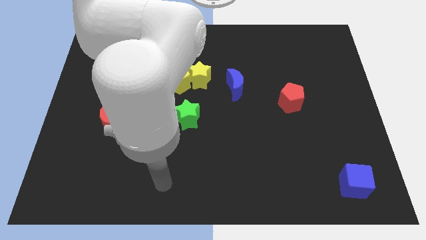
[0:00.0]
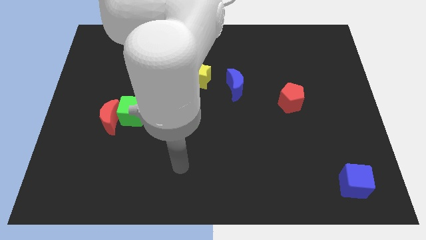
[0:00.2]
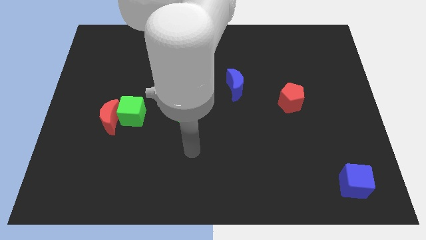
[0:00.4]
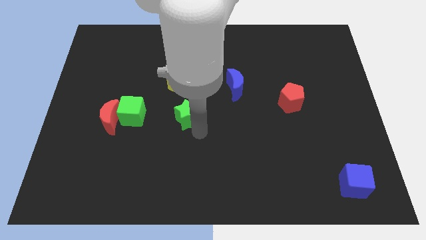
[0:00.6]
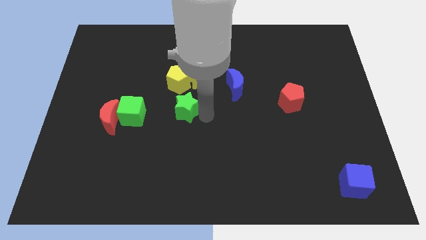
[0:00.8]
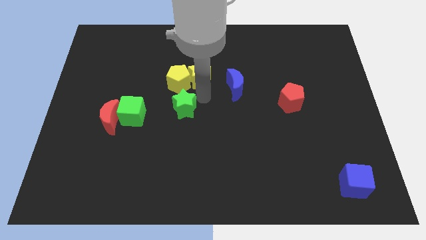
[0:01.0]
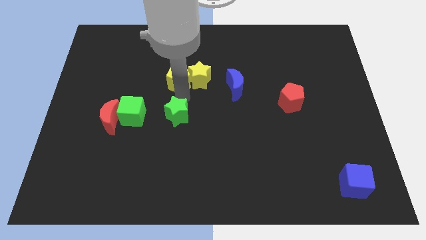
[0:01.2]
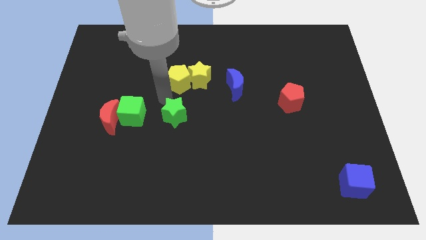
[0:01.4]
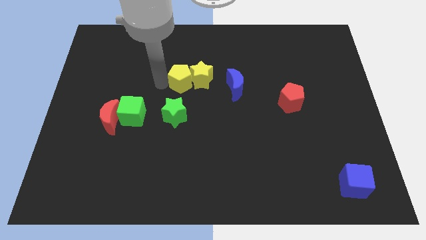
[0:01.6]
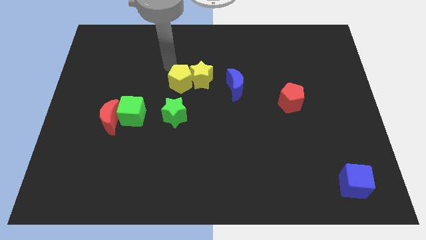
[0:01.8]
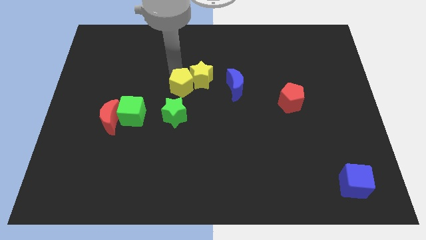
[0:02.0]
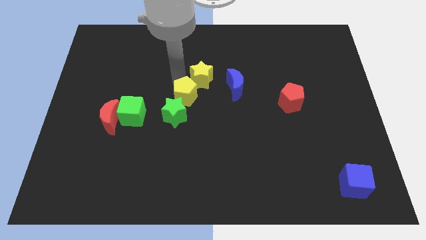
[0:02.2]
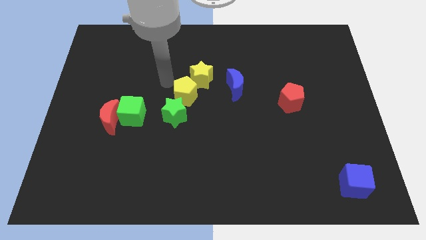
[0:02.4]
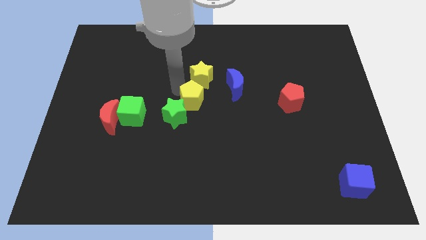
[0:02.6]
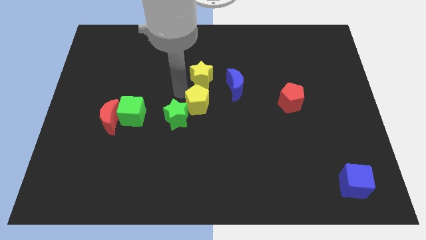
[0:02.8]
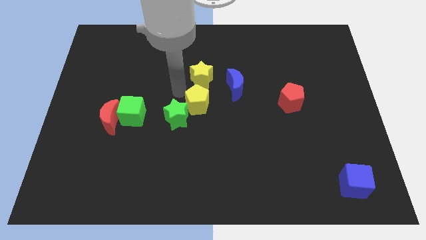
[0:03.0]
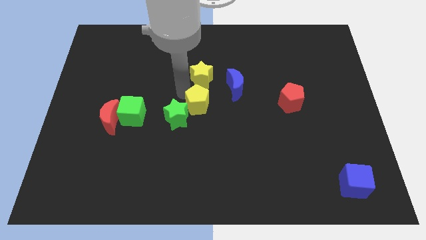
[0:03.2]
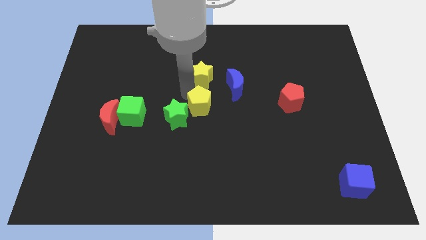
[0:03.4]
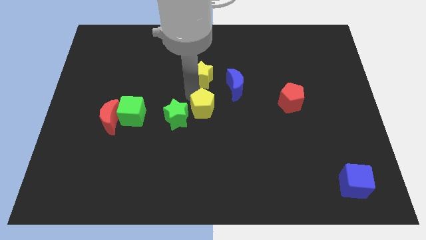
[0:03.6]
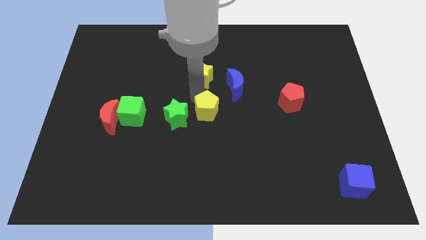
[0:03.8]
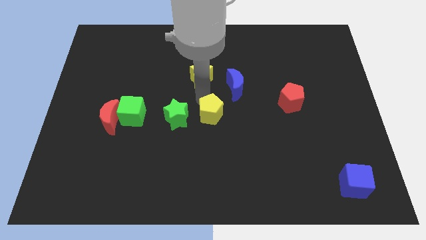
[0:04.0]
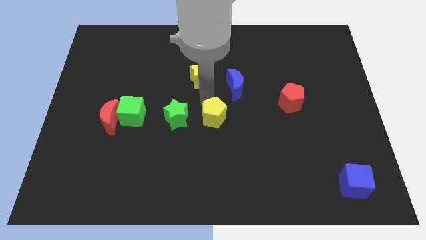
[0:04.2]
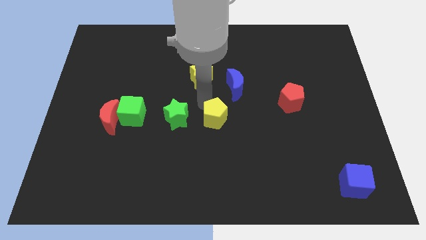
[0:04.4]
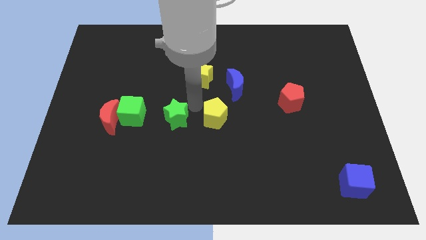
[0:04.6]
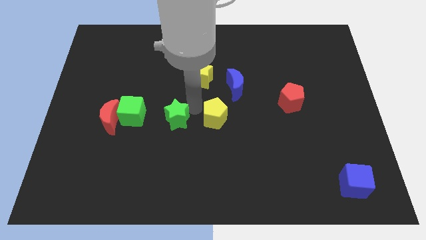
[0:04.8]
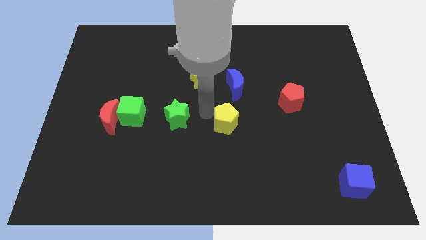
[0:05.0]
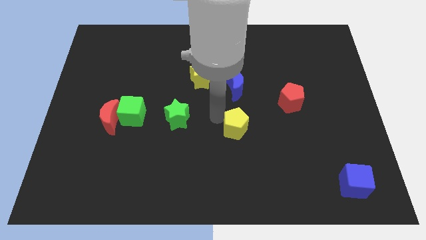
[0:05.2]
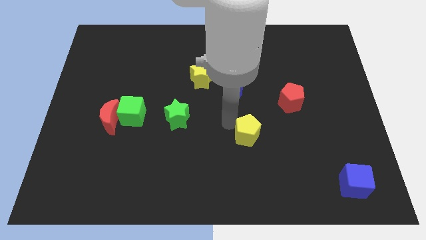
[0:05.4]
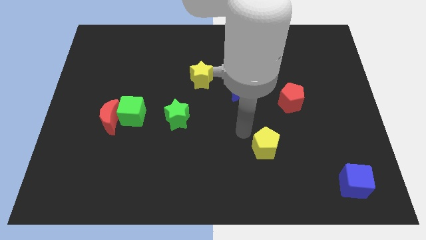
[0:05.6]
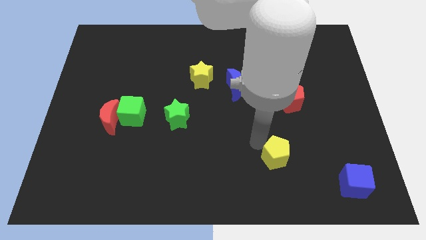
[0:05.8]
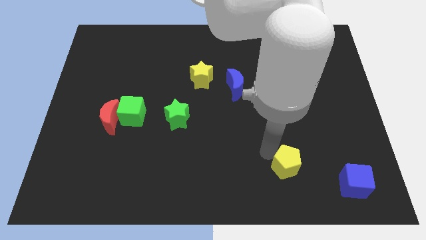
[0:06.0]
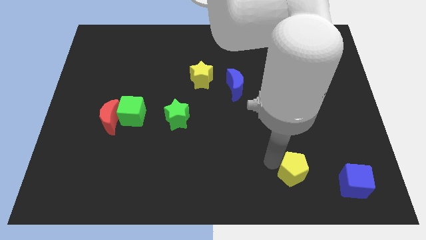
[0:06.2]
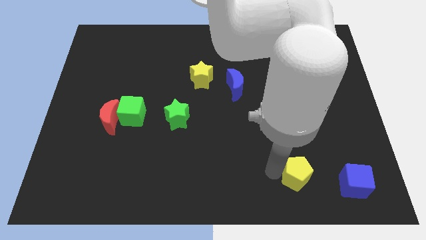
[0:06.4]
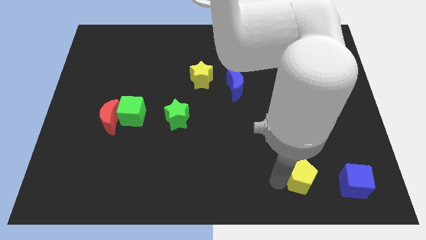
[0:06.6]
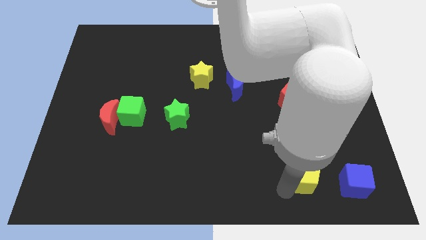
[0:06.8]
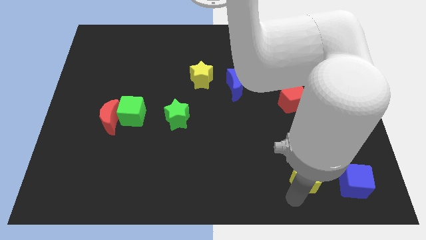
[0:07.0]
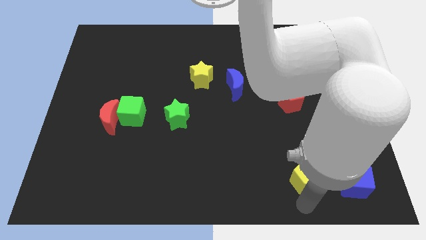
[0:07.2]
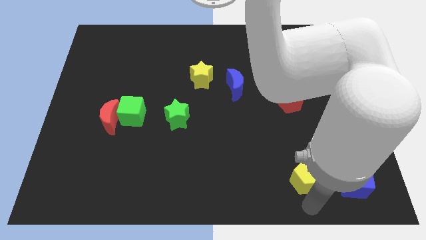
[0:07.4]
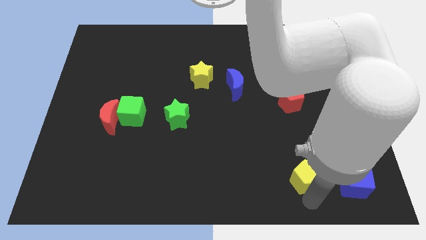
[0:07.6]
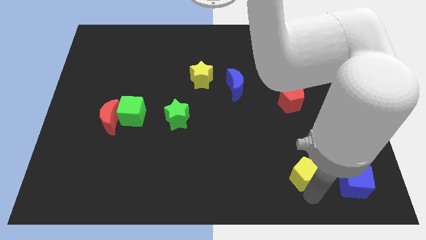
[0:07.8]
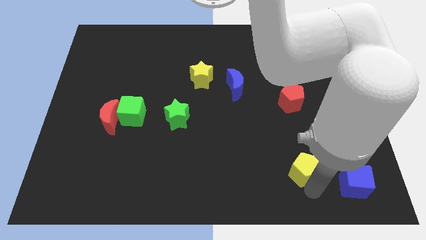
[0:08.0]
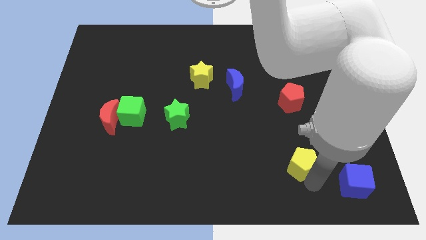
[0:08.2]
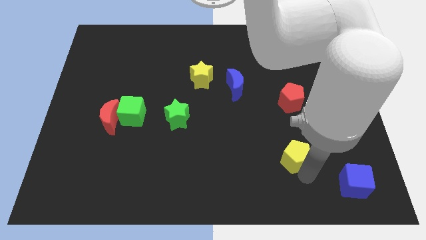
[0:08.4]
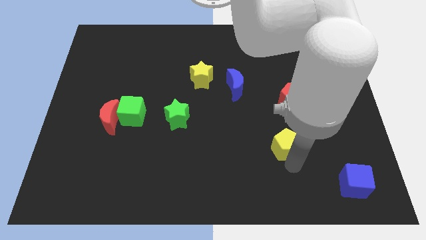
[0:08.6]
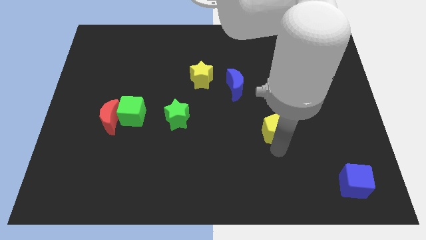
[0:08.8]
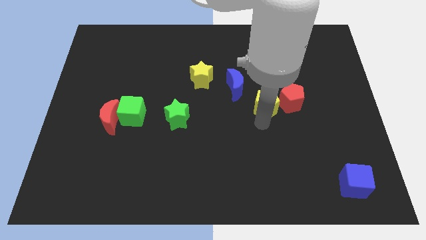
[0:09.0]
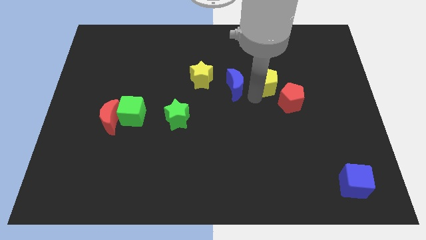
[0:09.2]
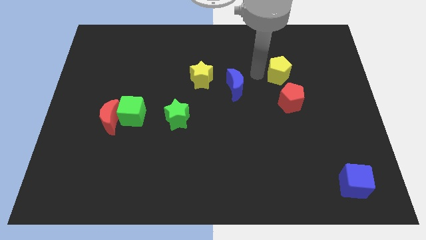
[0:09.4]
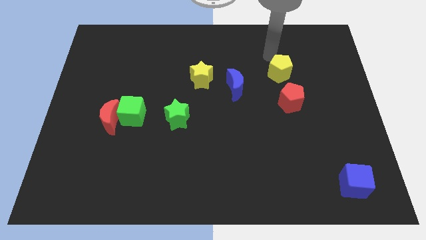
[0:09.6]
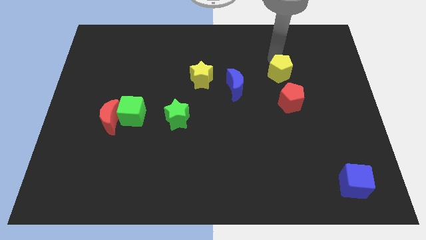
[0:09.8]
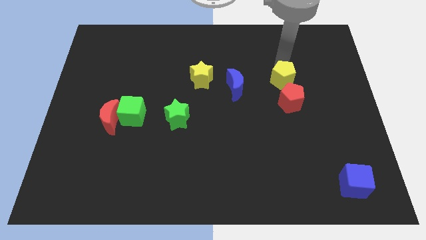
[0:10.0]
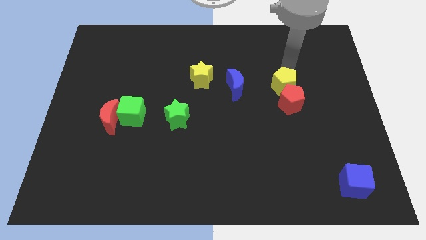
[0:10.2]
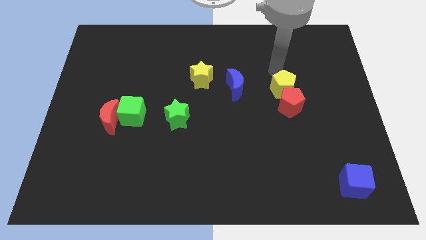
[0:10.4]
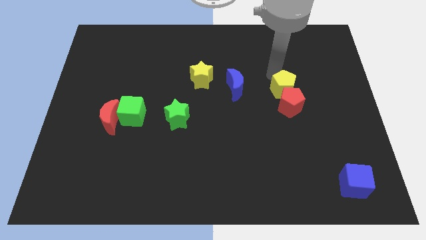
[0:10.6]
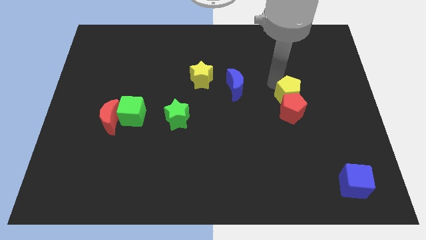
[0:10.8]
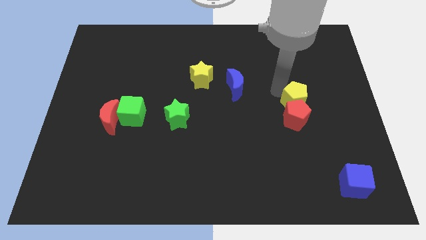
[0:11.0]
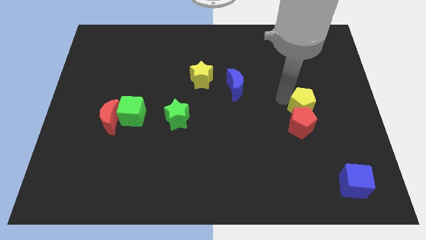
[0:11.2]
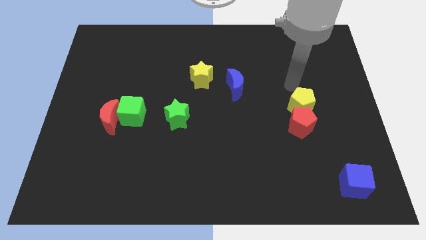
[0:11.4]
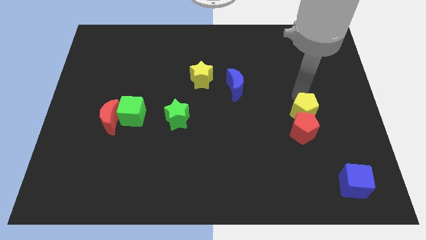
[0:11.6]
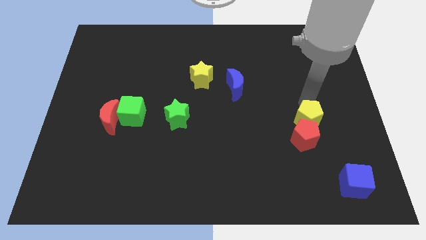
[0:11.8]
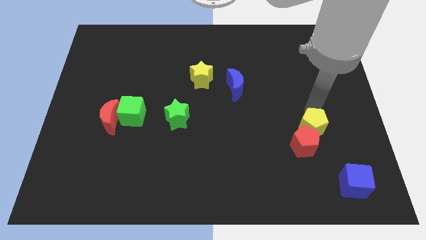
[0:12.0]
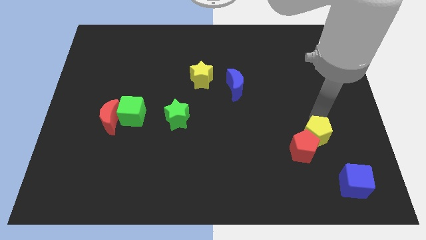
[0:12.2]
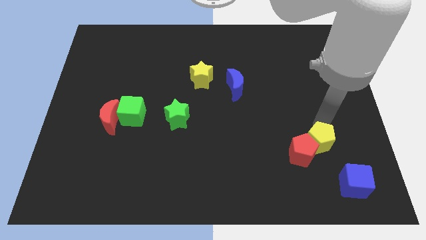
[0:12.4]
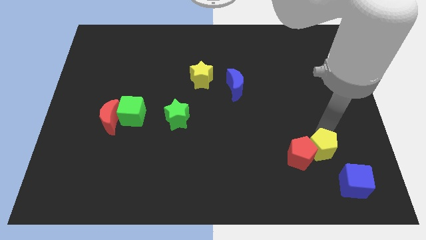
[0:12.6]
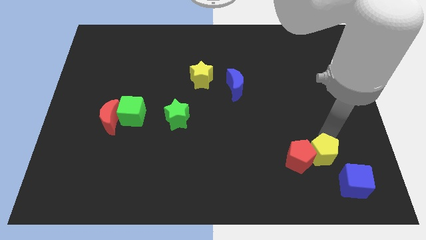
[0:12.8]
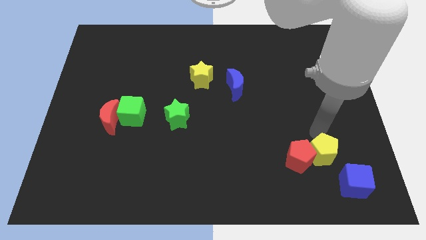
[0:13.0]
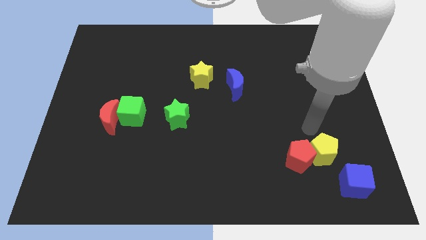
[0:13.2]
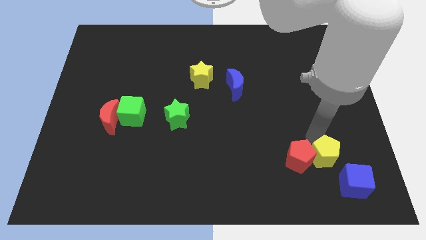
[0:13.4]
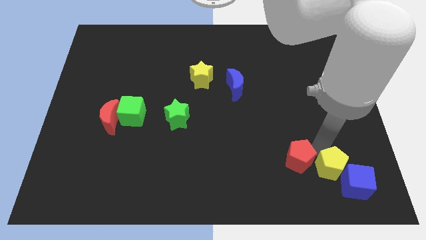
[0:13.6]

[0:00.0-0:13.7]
move the yellow pentagon to the blue cube
